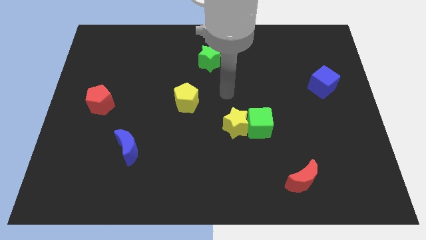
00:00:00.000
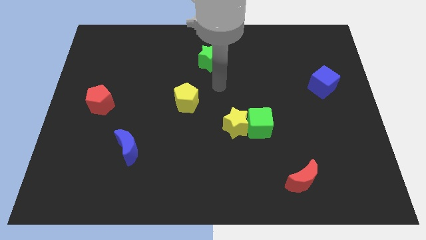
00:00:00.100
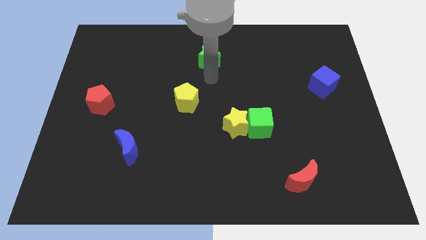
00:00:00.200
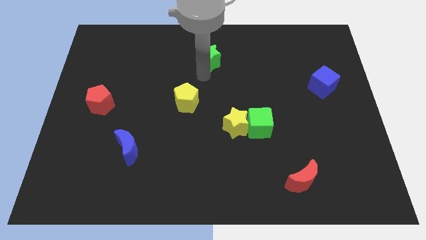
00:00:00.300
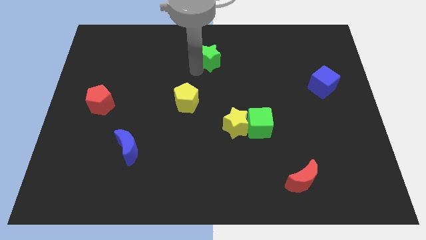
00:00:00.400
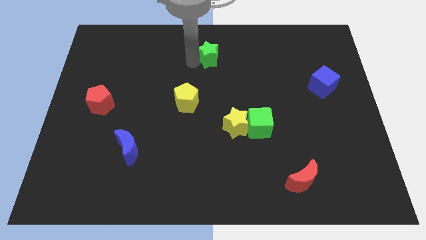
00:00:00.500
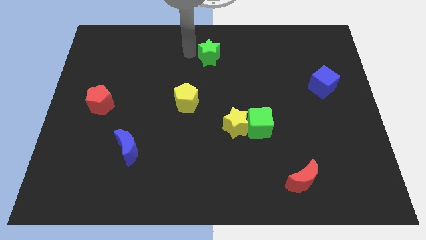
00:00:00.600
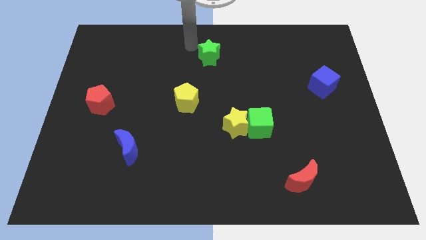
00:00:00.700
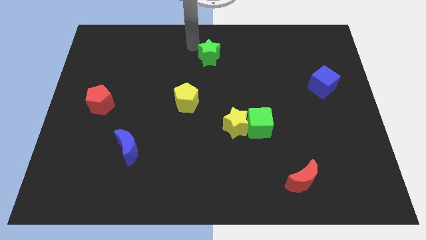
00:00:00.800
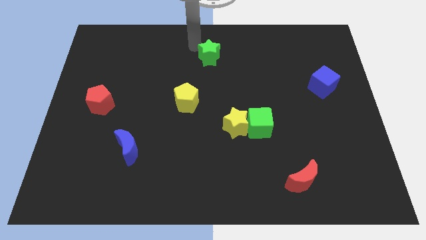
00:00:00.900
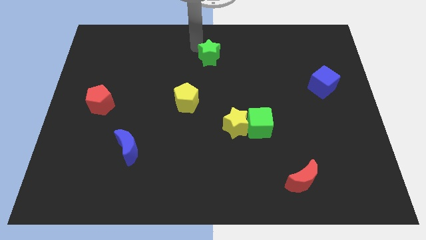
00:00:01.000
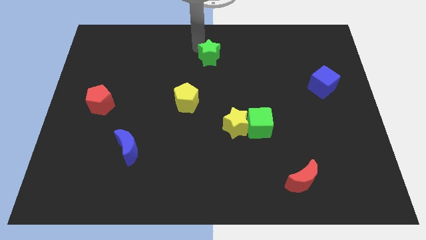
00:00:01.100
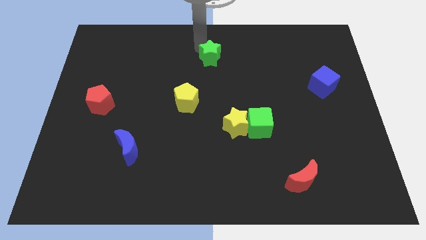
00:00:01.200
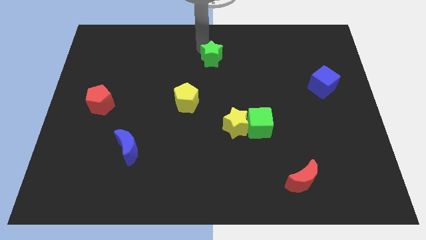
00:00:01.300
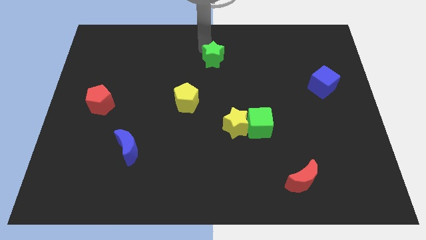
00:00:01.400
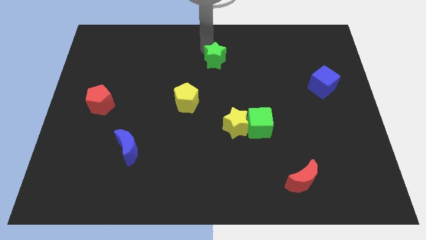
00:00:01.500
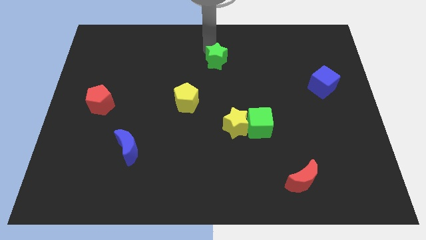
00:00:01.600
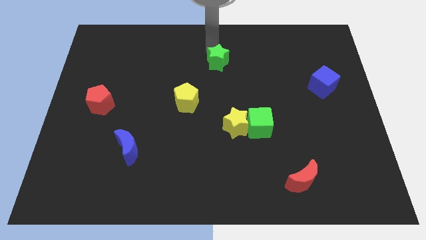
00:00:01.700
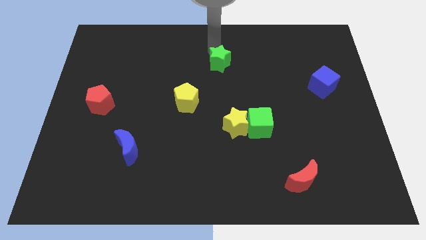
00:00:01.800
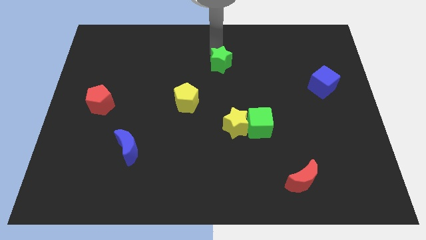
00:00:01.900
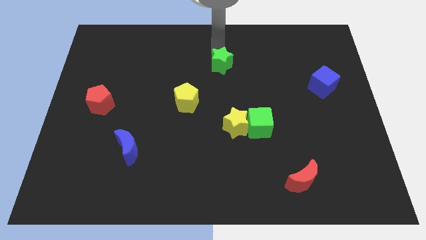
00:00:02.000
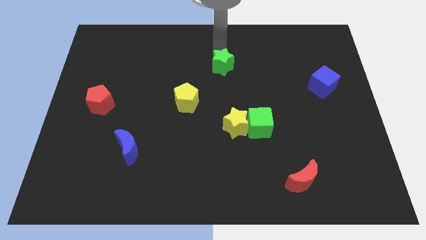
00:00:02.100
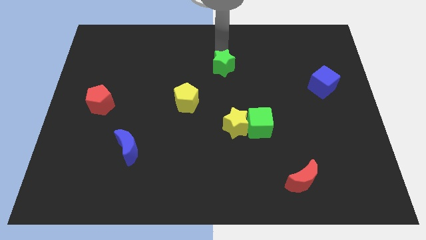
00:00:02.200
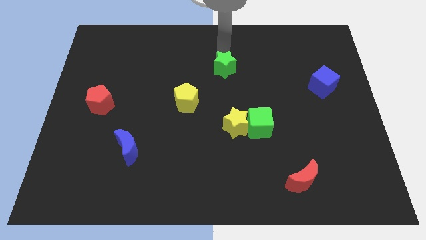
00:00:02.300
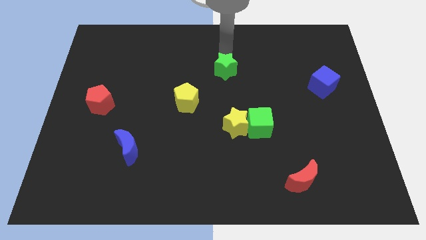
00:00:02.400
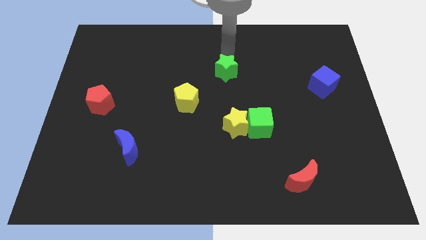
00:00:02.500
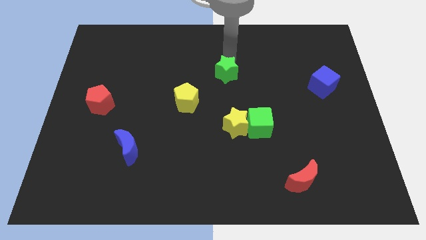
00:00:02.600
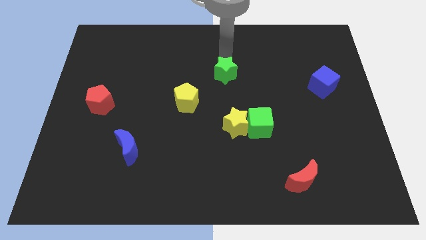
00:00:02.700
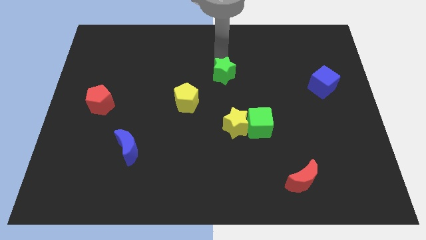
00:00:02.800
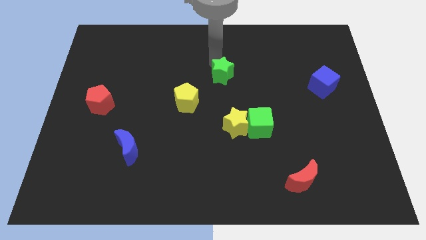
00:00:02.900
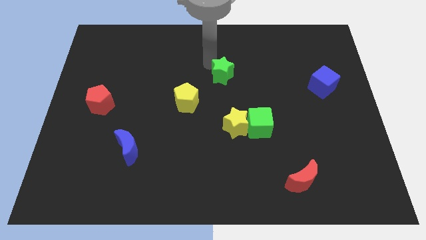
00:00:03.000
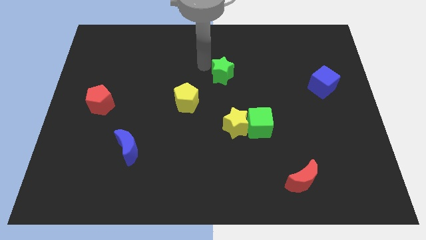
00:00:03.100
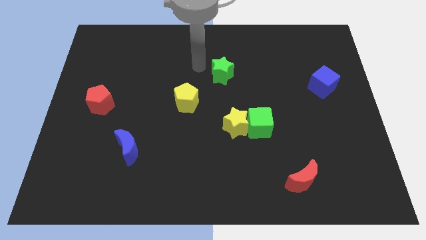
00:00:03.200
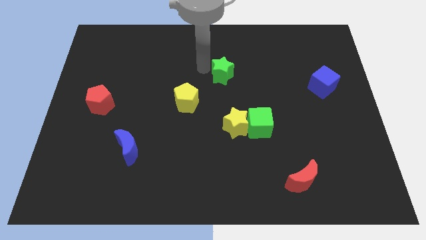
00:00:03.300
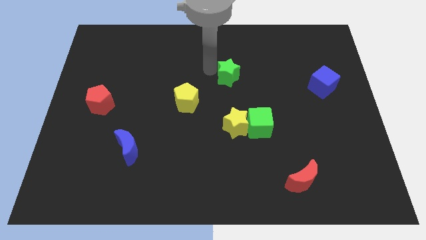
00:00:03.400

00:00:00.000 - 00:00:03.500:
move the green star somewhat down and to the right diagonally

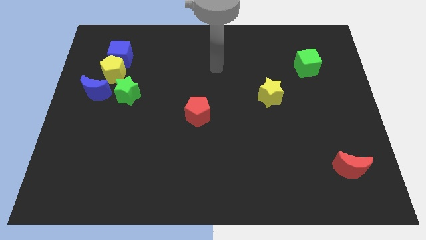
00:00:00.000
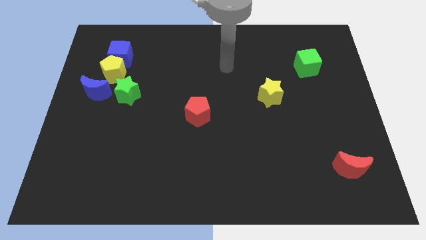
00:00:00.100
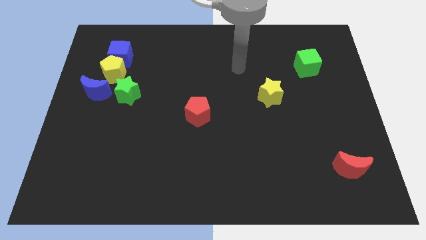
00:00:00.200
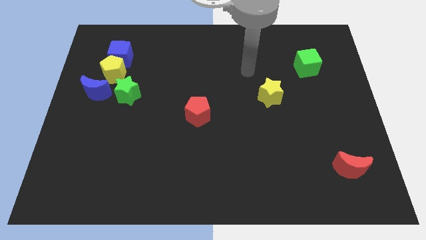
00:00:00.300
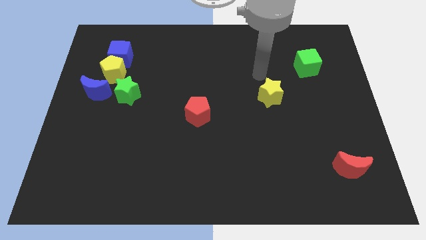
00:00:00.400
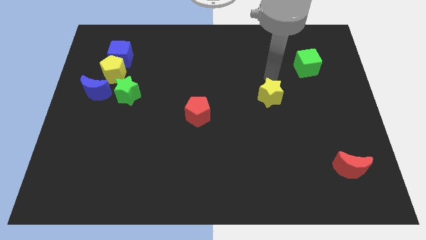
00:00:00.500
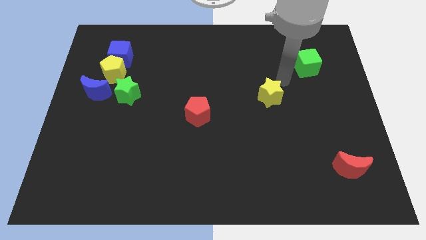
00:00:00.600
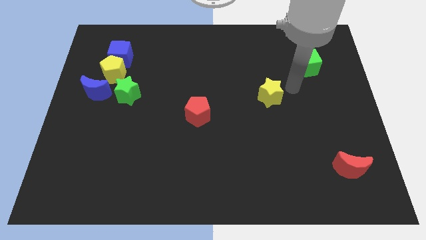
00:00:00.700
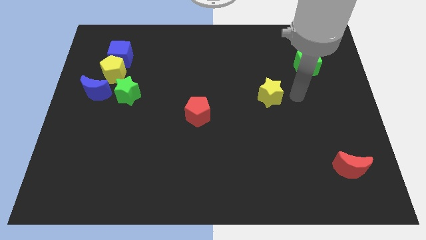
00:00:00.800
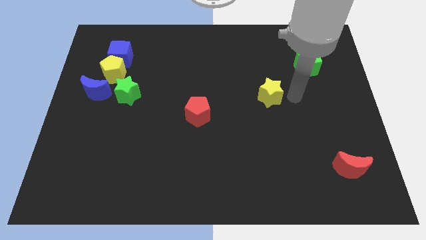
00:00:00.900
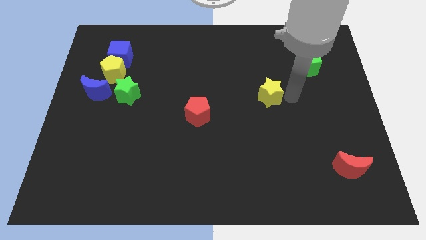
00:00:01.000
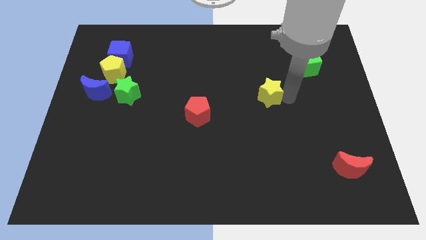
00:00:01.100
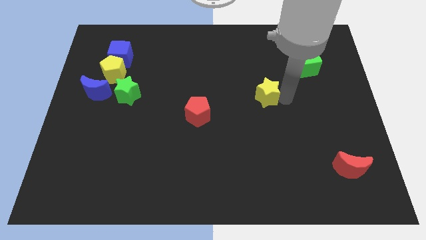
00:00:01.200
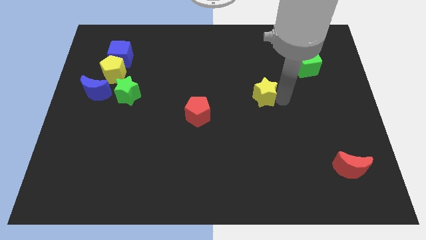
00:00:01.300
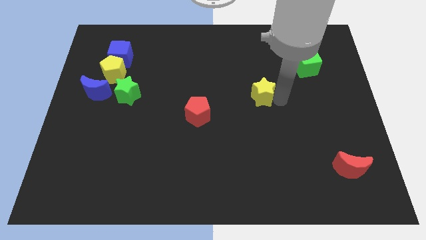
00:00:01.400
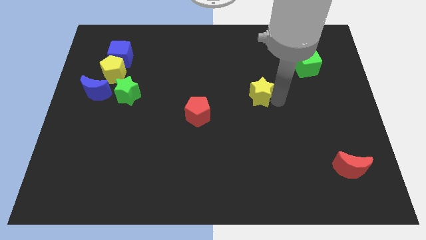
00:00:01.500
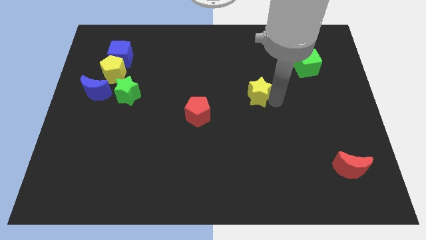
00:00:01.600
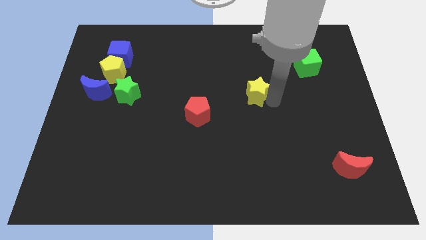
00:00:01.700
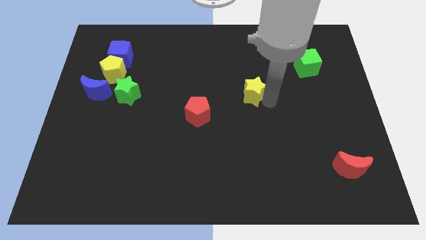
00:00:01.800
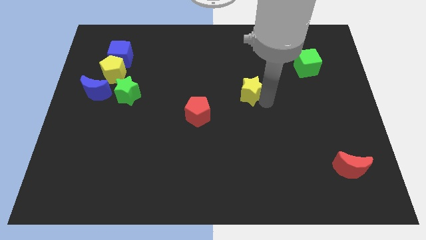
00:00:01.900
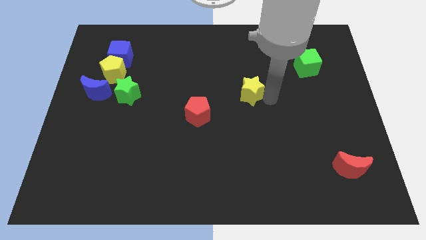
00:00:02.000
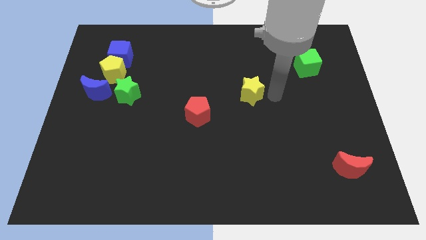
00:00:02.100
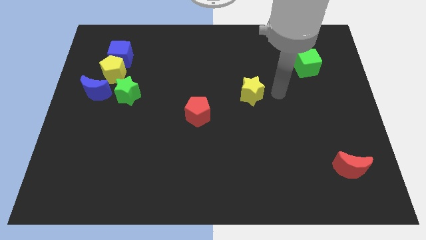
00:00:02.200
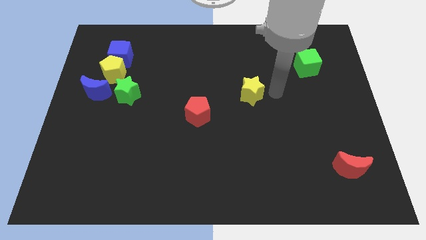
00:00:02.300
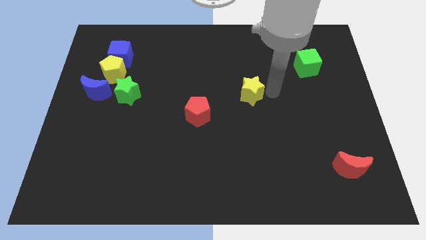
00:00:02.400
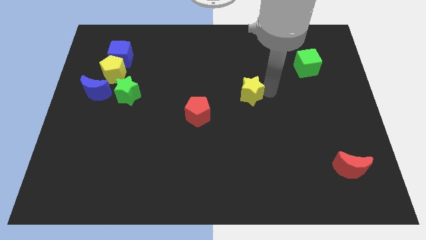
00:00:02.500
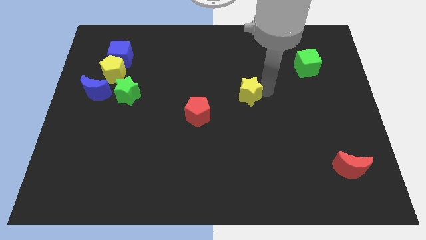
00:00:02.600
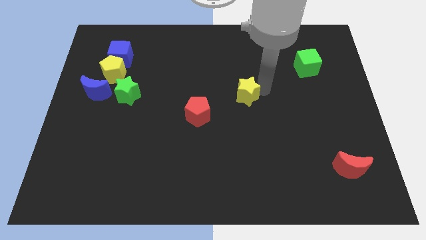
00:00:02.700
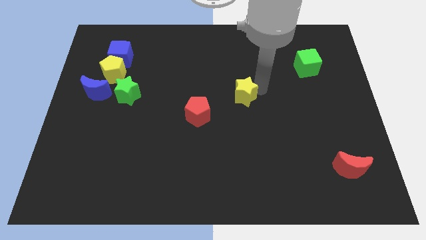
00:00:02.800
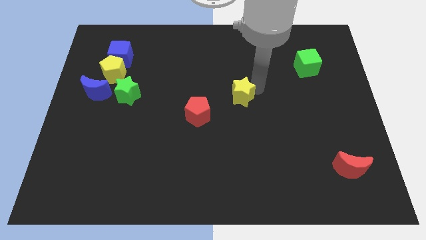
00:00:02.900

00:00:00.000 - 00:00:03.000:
move the yellow star to the left a little bit

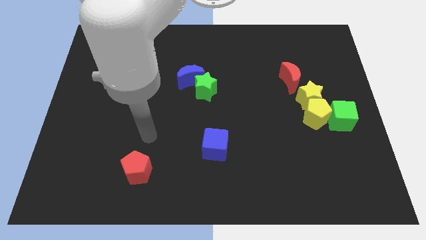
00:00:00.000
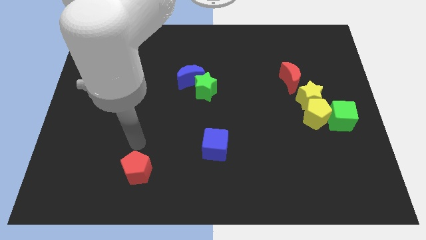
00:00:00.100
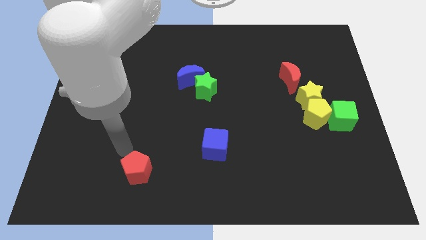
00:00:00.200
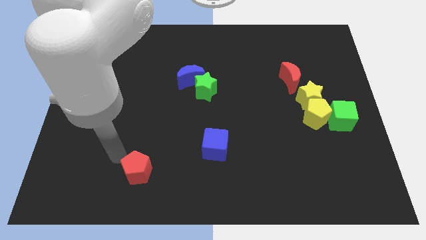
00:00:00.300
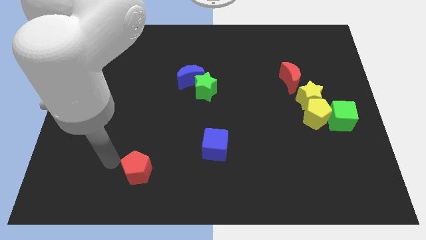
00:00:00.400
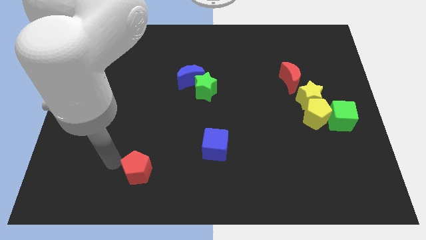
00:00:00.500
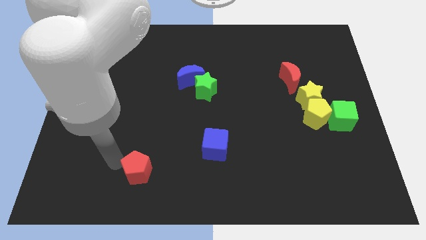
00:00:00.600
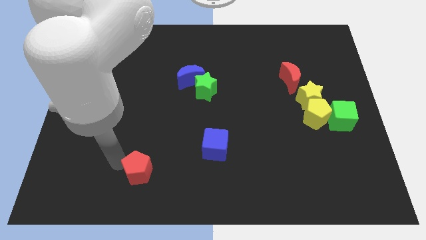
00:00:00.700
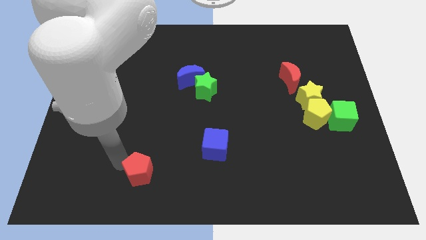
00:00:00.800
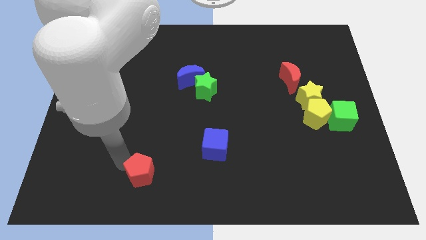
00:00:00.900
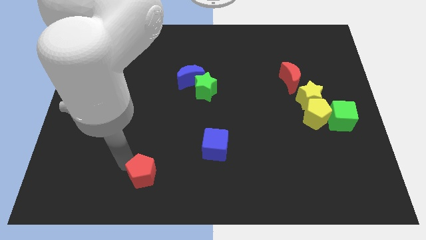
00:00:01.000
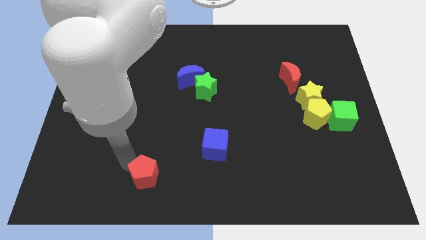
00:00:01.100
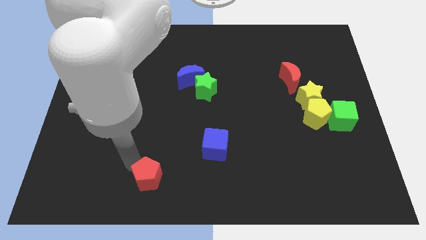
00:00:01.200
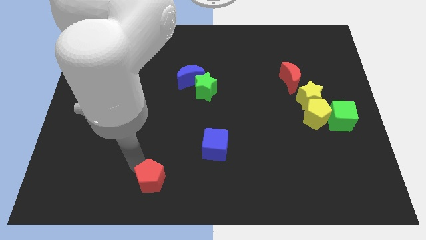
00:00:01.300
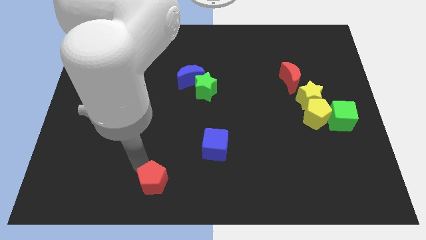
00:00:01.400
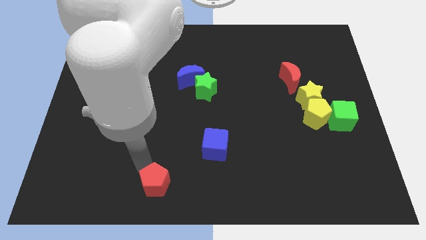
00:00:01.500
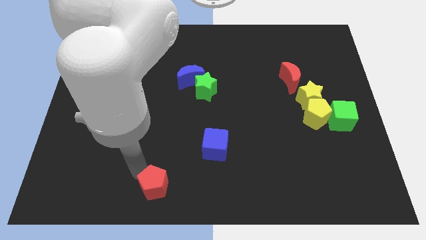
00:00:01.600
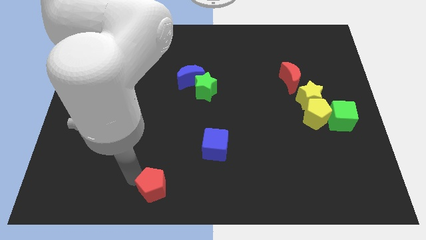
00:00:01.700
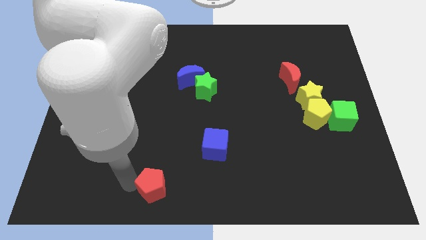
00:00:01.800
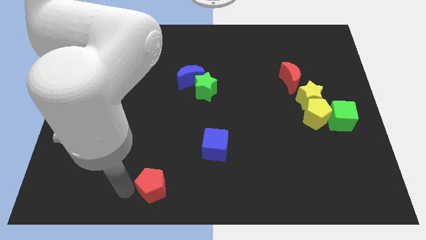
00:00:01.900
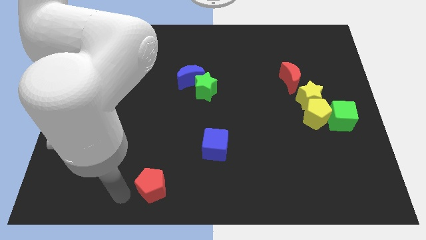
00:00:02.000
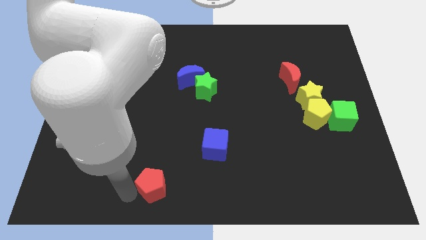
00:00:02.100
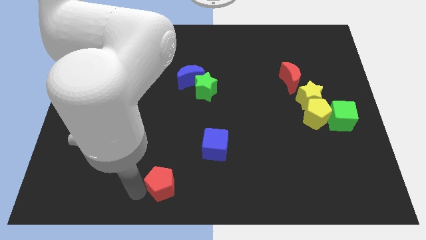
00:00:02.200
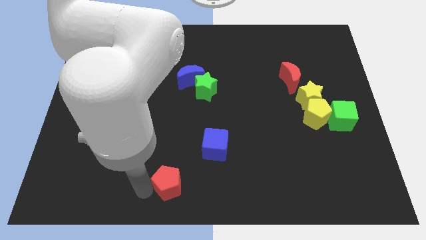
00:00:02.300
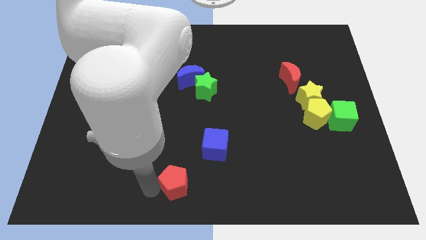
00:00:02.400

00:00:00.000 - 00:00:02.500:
push the red pentagon to the right a bit
